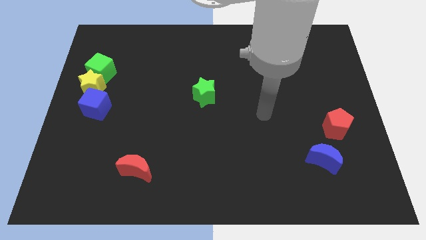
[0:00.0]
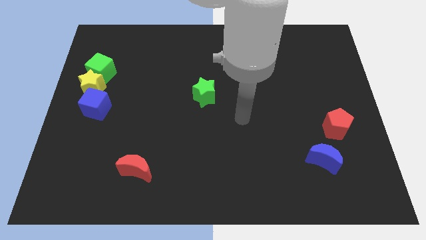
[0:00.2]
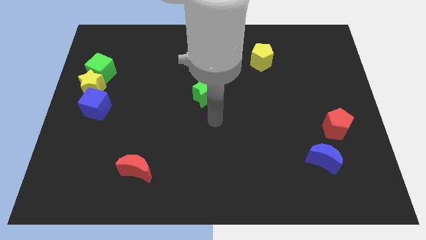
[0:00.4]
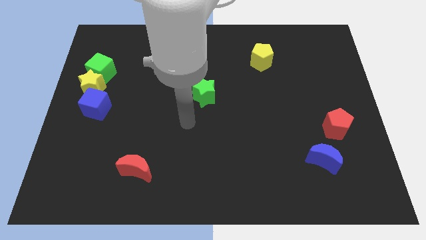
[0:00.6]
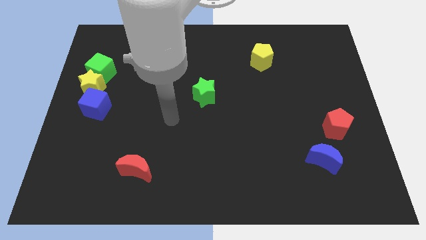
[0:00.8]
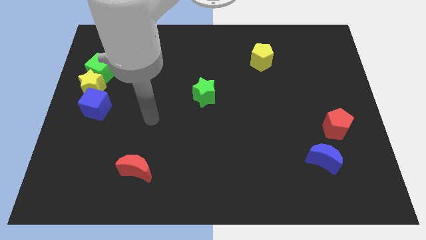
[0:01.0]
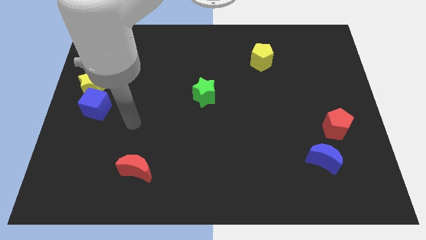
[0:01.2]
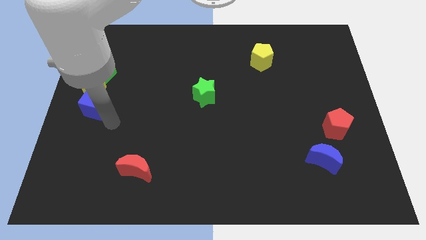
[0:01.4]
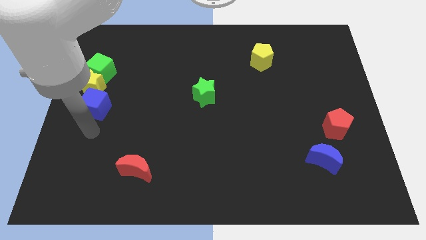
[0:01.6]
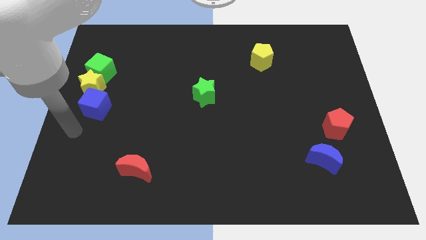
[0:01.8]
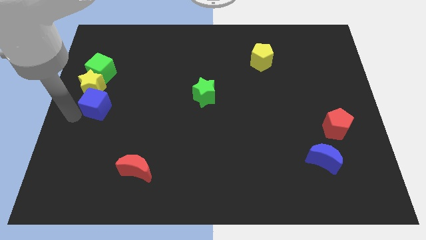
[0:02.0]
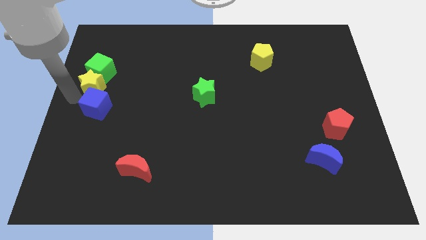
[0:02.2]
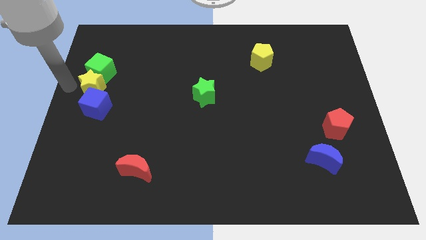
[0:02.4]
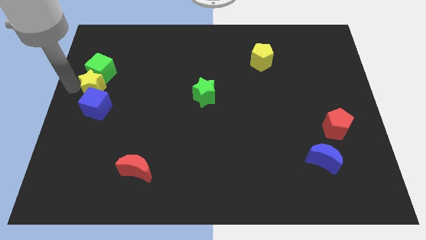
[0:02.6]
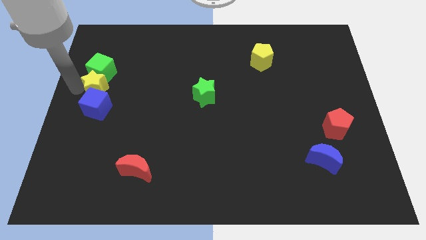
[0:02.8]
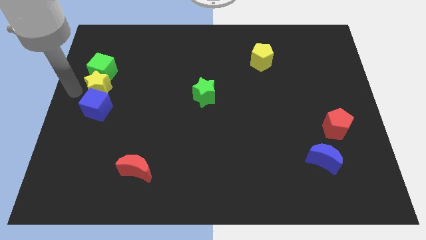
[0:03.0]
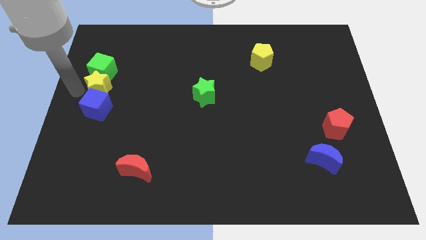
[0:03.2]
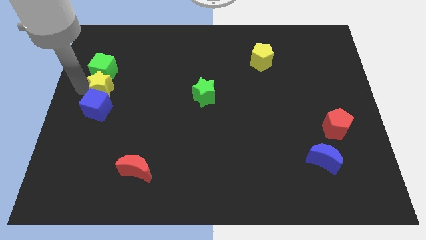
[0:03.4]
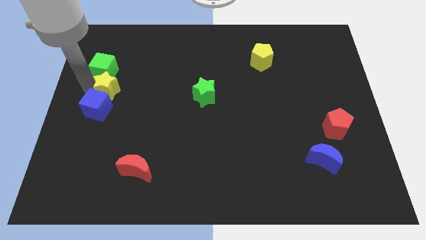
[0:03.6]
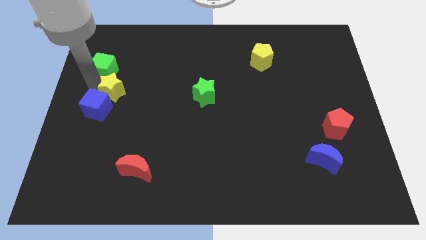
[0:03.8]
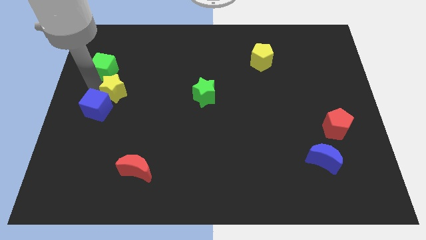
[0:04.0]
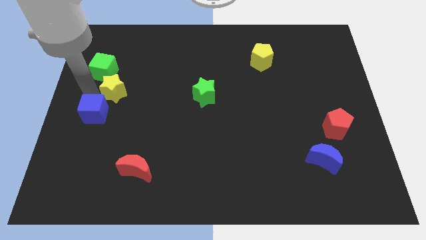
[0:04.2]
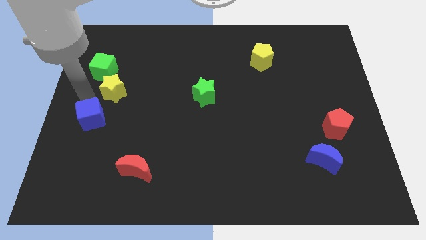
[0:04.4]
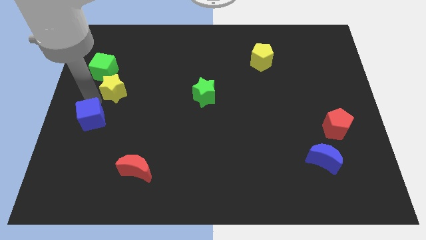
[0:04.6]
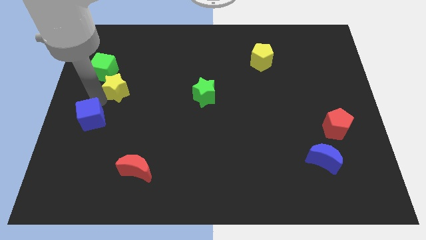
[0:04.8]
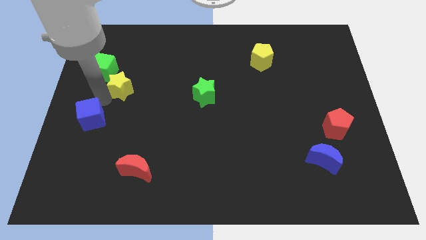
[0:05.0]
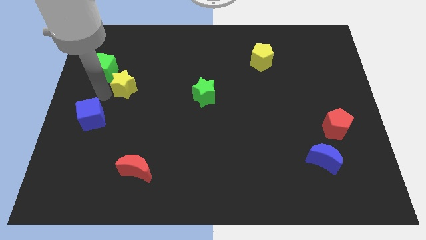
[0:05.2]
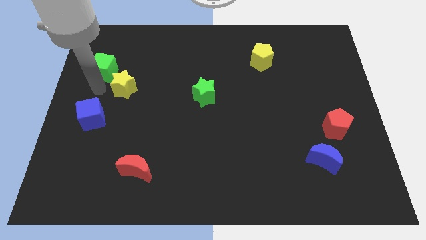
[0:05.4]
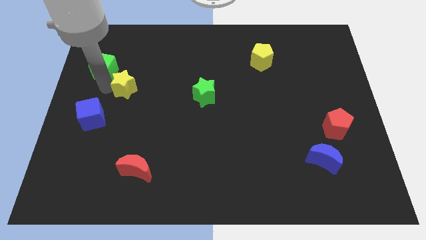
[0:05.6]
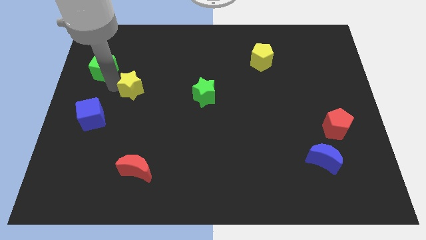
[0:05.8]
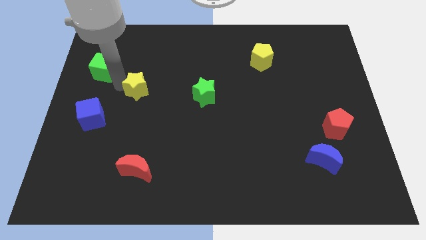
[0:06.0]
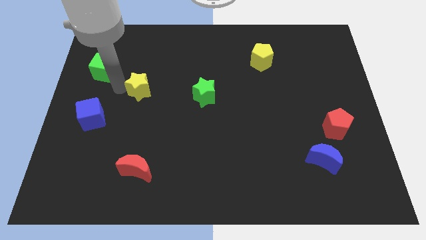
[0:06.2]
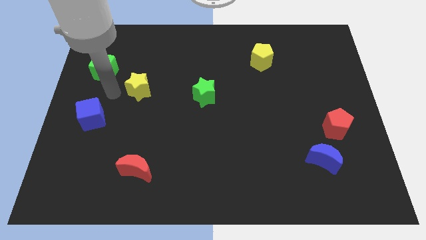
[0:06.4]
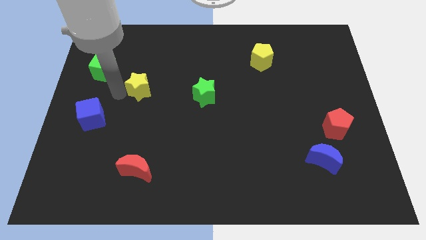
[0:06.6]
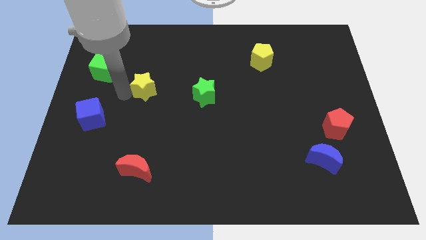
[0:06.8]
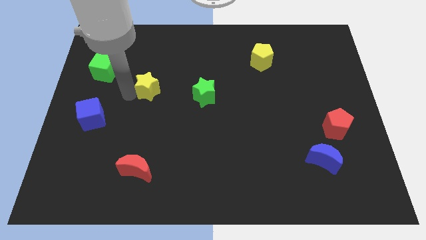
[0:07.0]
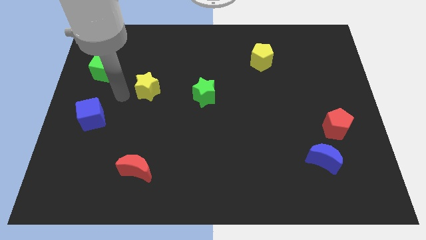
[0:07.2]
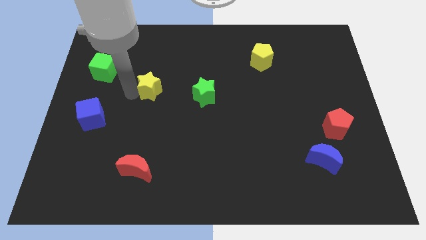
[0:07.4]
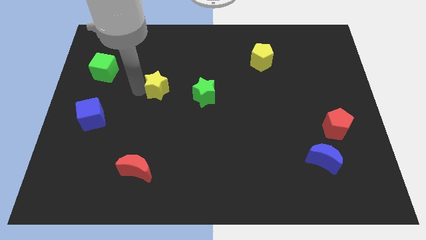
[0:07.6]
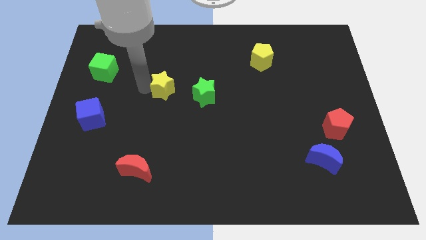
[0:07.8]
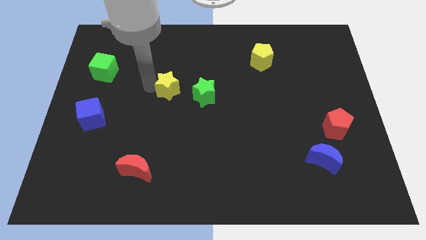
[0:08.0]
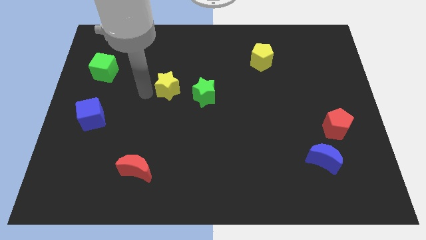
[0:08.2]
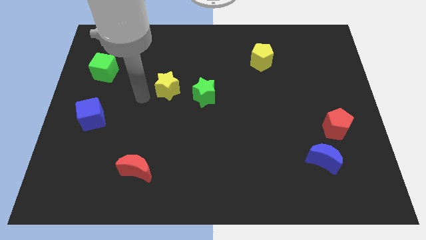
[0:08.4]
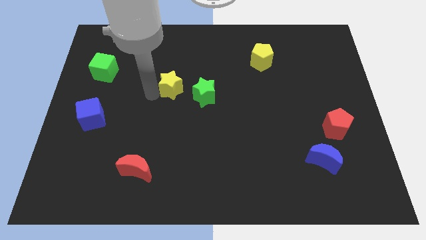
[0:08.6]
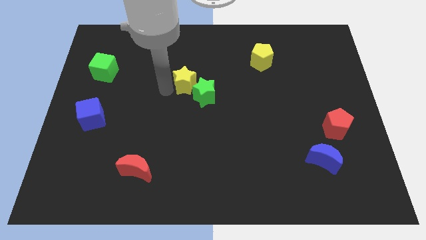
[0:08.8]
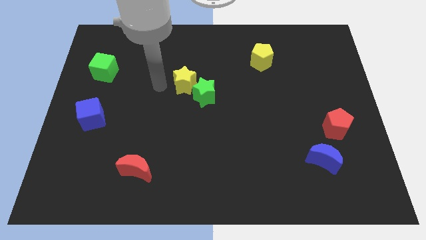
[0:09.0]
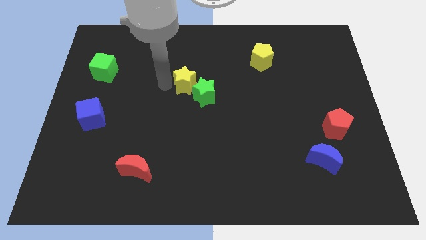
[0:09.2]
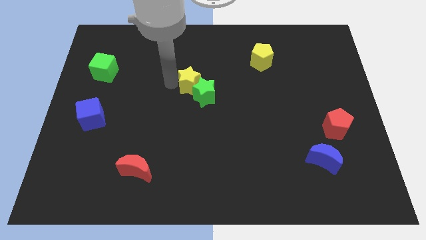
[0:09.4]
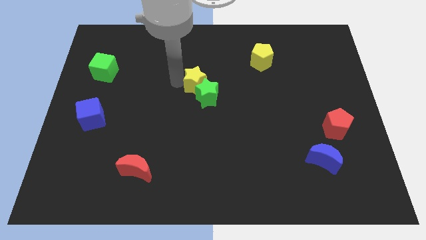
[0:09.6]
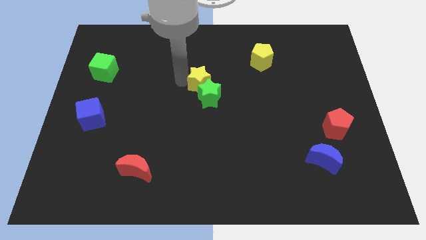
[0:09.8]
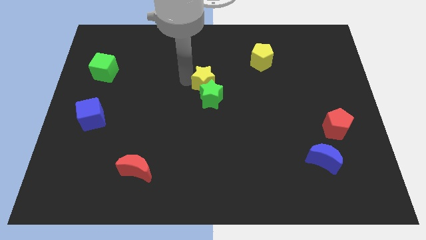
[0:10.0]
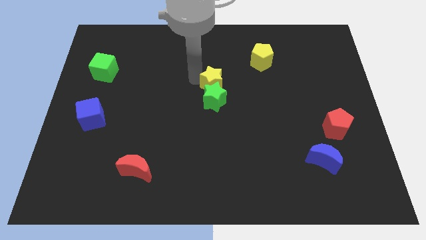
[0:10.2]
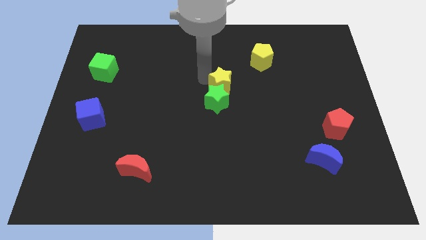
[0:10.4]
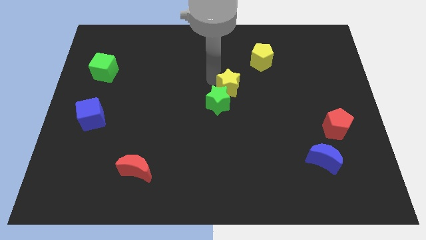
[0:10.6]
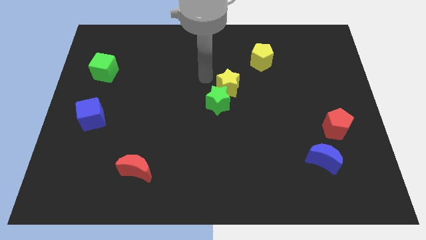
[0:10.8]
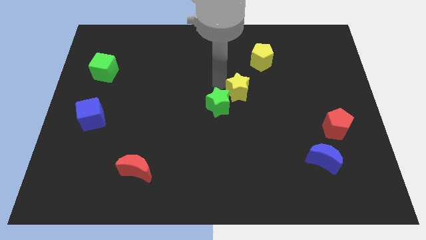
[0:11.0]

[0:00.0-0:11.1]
put the yellow star right of the green star

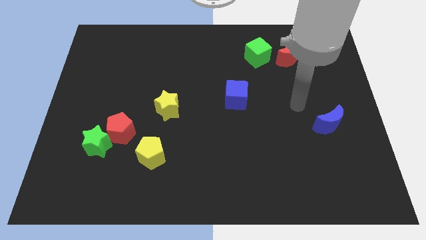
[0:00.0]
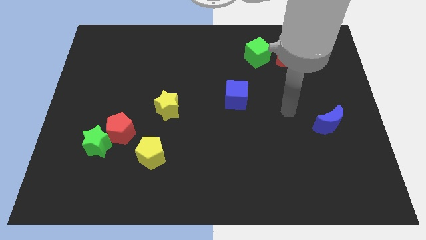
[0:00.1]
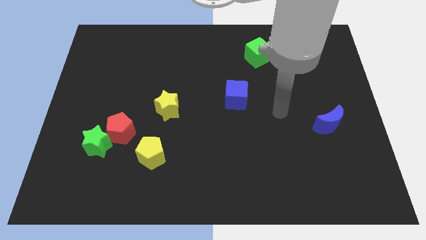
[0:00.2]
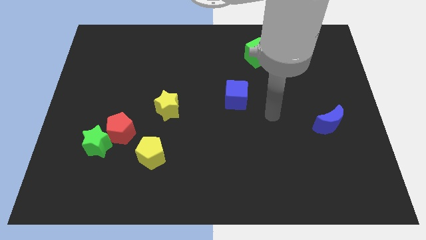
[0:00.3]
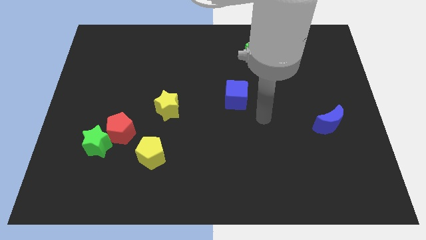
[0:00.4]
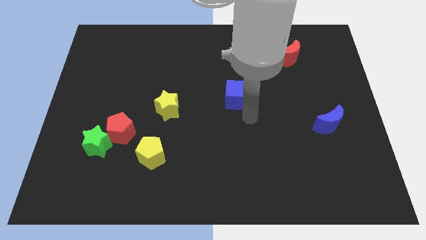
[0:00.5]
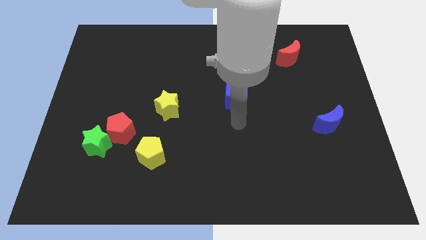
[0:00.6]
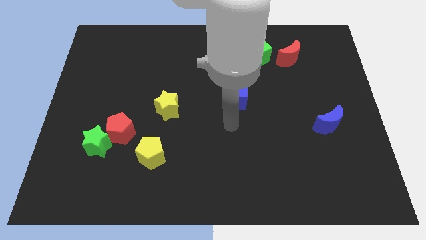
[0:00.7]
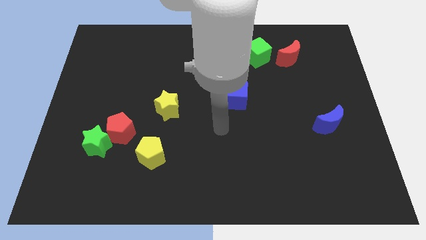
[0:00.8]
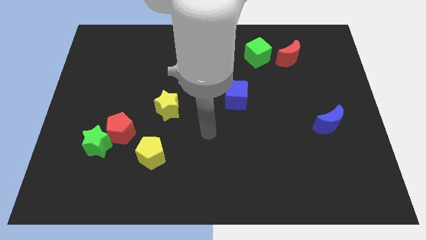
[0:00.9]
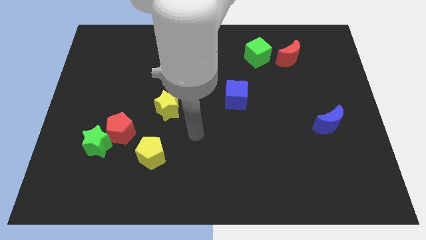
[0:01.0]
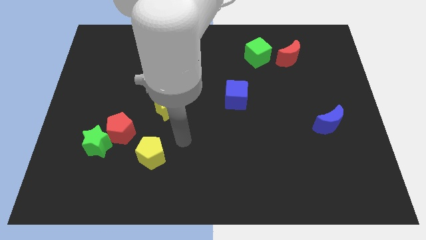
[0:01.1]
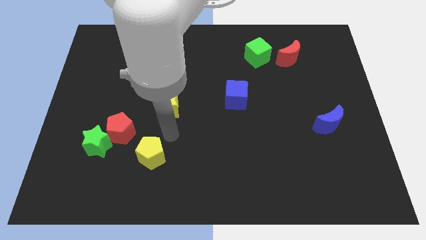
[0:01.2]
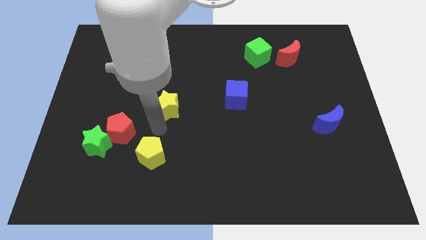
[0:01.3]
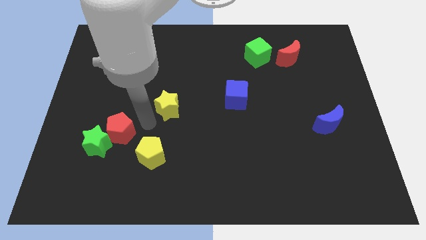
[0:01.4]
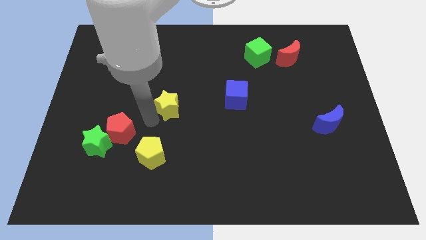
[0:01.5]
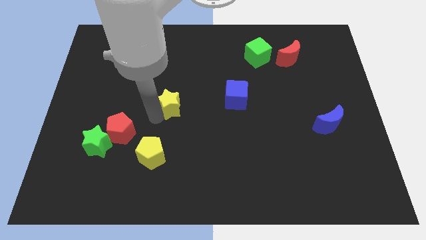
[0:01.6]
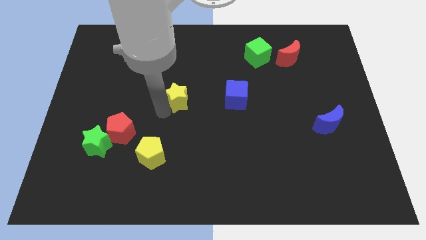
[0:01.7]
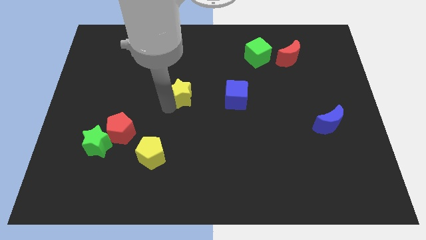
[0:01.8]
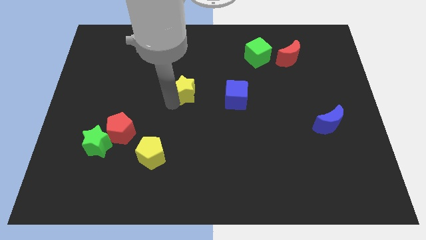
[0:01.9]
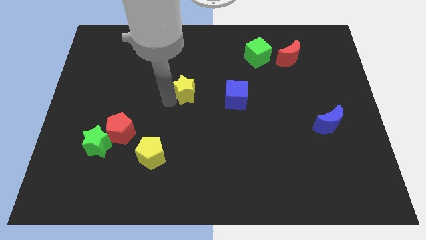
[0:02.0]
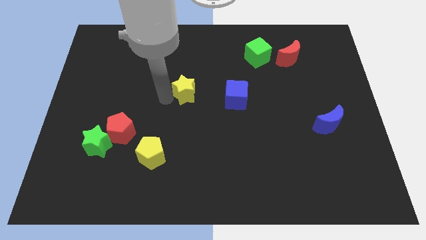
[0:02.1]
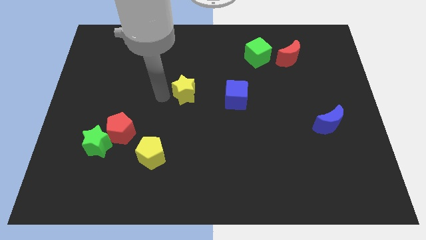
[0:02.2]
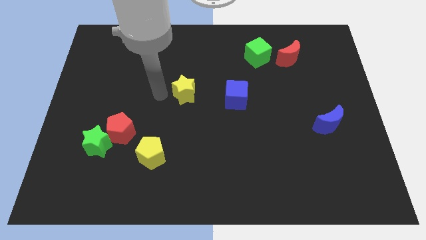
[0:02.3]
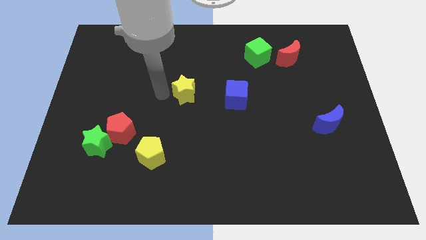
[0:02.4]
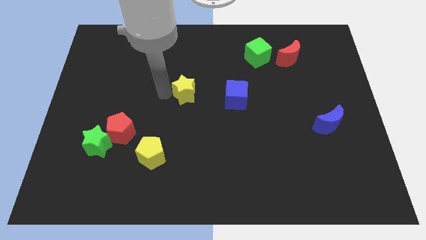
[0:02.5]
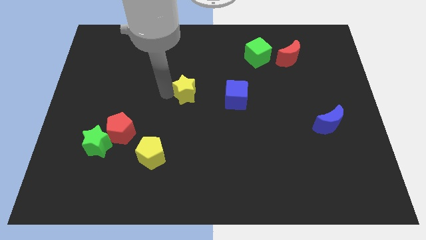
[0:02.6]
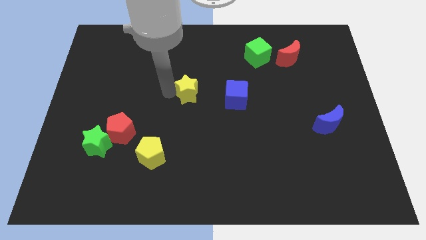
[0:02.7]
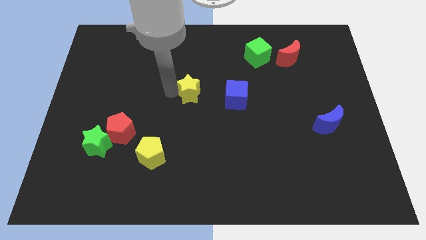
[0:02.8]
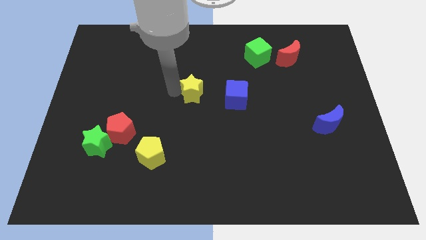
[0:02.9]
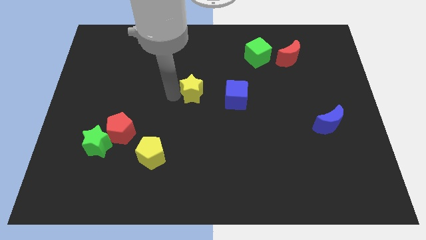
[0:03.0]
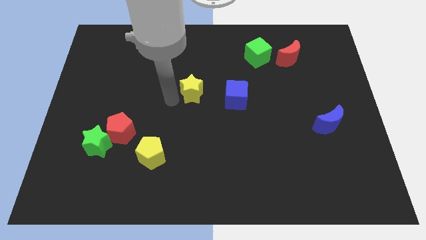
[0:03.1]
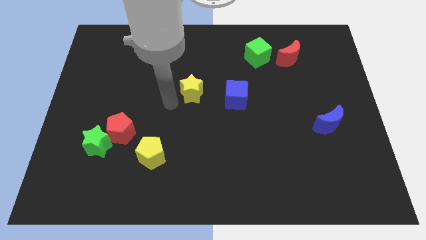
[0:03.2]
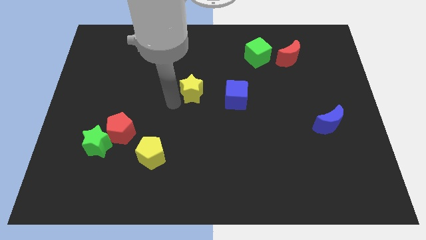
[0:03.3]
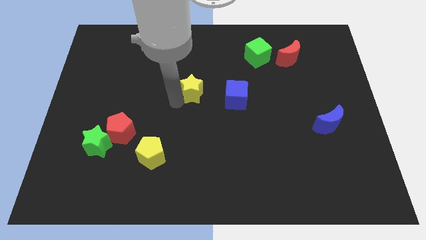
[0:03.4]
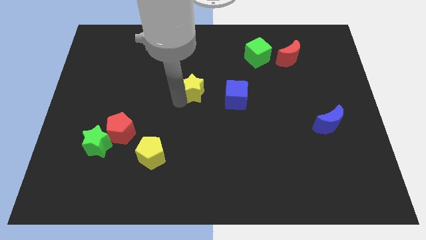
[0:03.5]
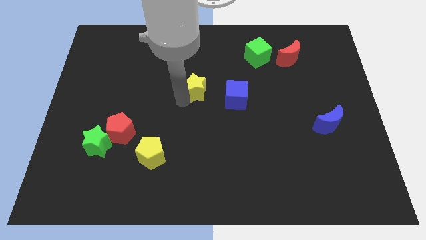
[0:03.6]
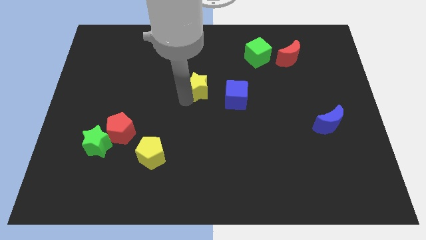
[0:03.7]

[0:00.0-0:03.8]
slide the yellow star to the top left side of the blue cube
